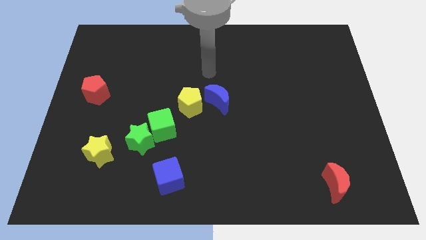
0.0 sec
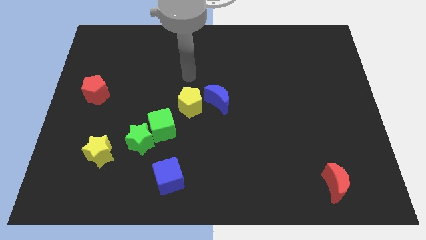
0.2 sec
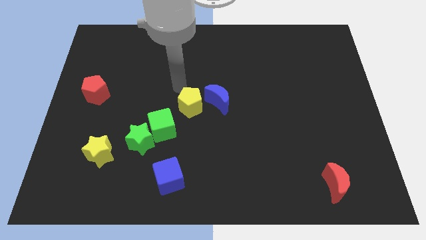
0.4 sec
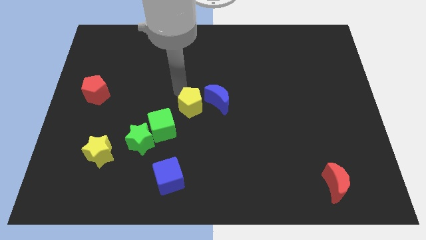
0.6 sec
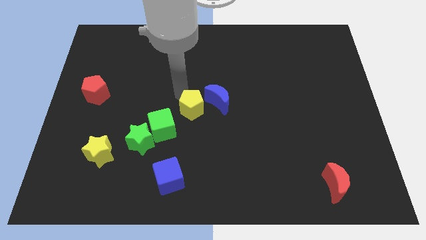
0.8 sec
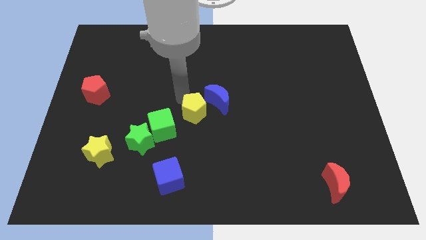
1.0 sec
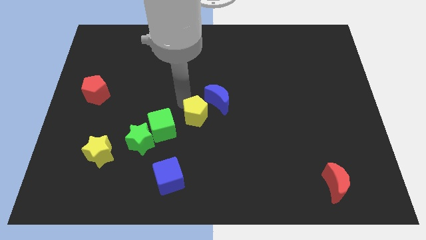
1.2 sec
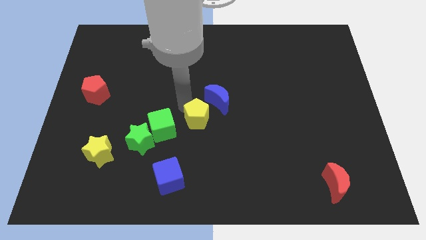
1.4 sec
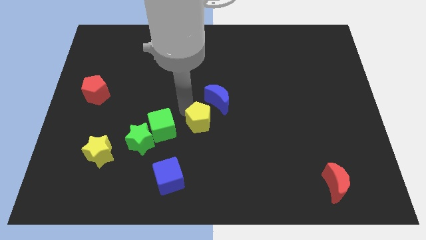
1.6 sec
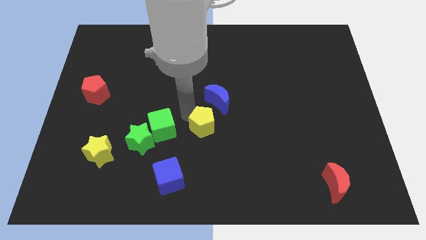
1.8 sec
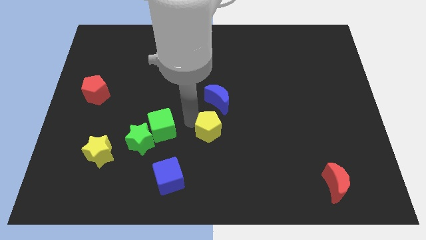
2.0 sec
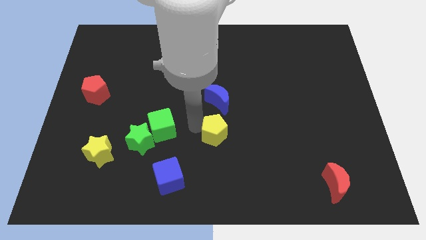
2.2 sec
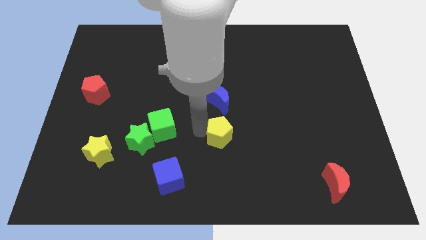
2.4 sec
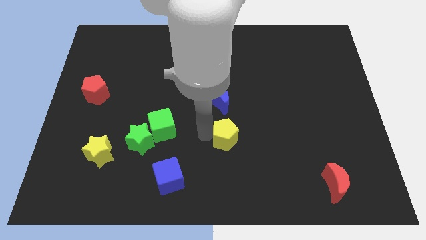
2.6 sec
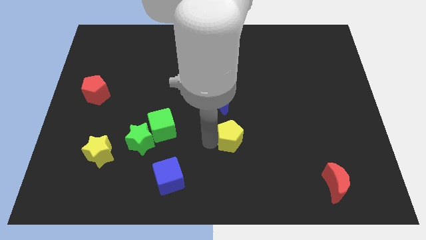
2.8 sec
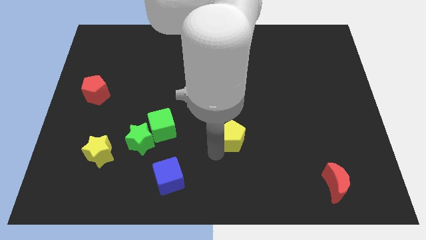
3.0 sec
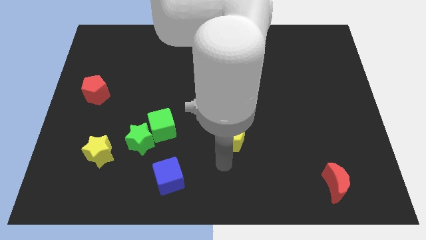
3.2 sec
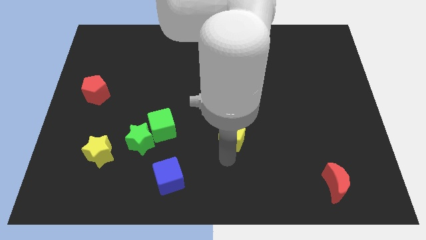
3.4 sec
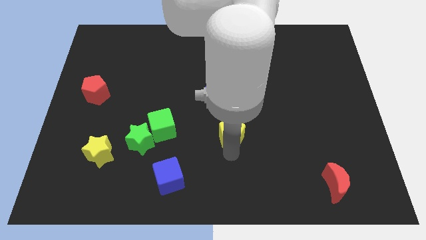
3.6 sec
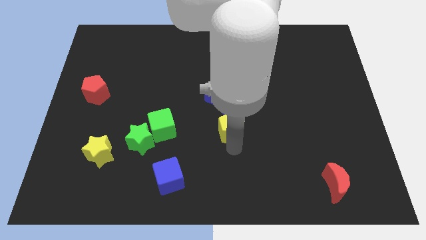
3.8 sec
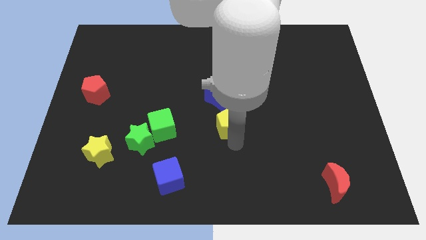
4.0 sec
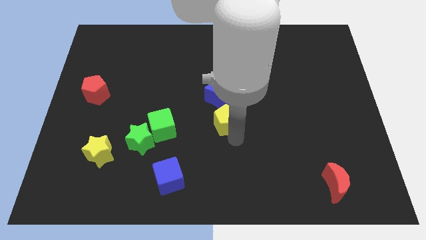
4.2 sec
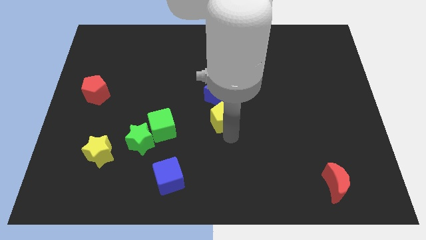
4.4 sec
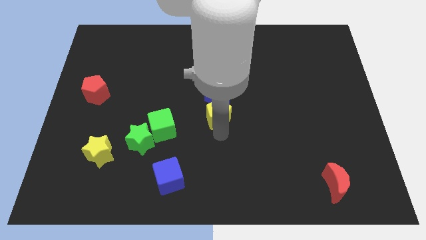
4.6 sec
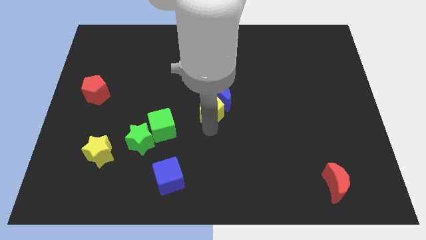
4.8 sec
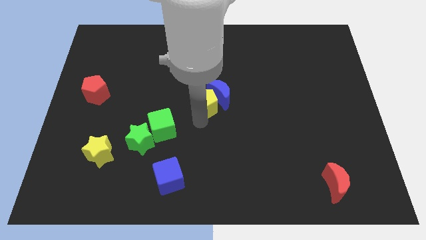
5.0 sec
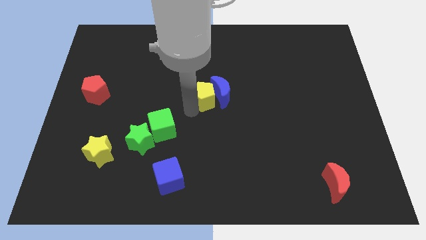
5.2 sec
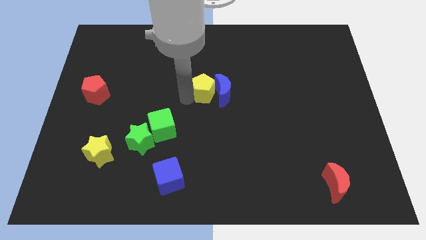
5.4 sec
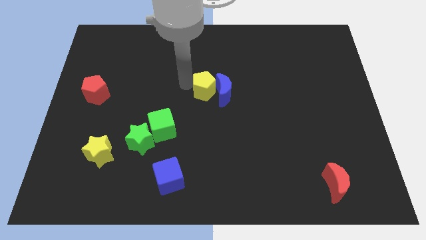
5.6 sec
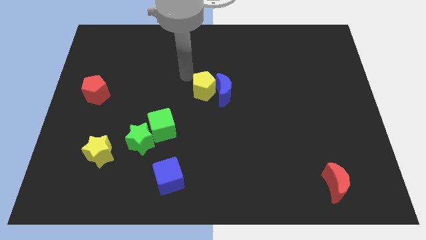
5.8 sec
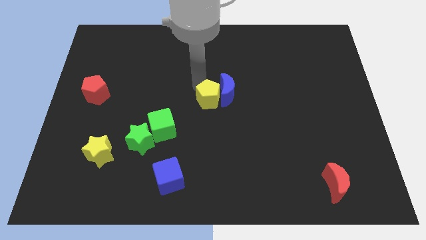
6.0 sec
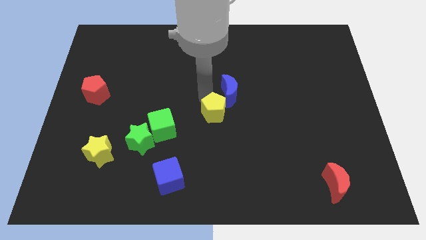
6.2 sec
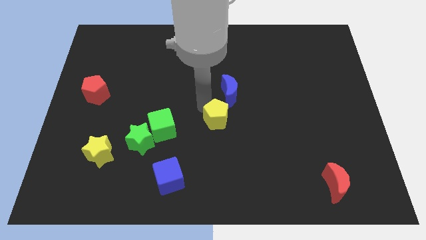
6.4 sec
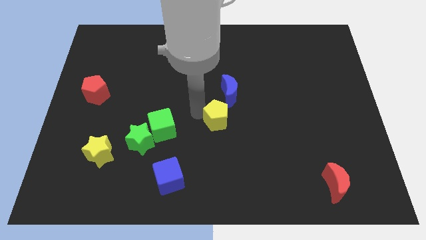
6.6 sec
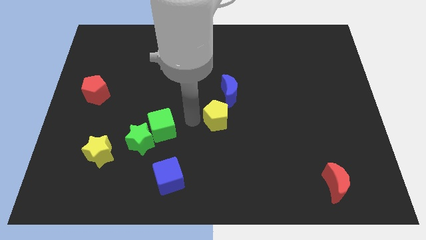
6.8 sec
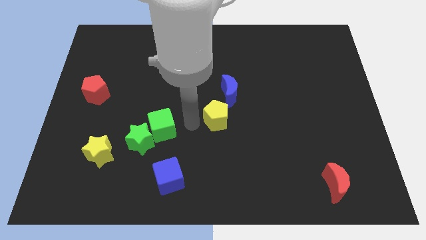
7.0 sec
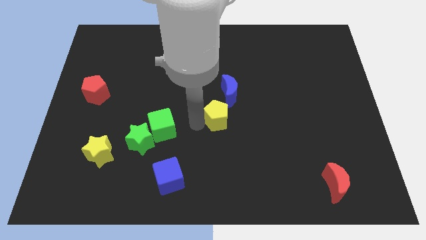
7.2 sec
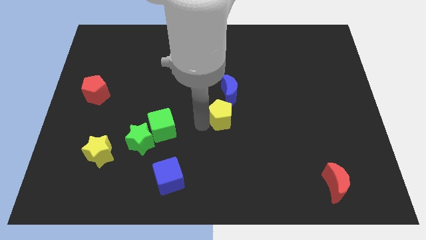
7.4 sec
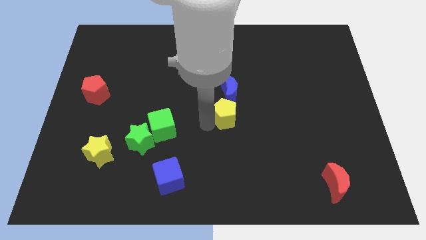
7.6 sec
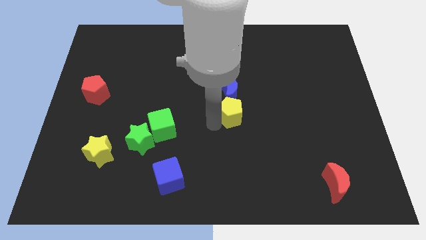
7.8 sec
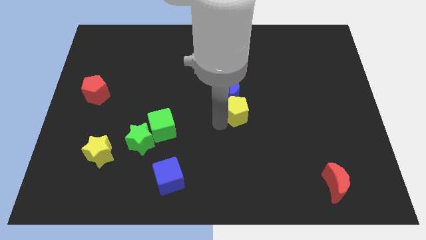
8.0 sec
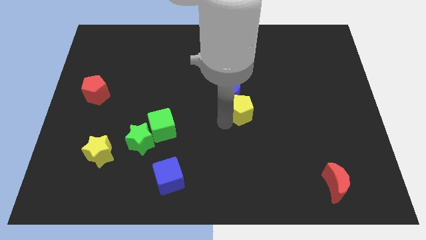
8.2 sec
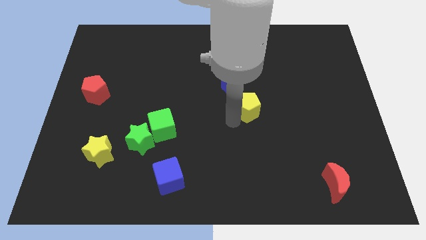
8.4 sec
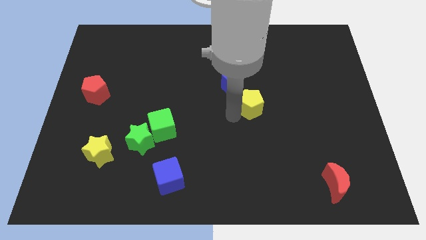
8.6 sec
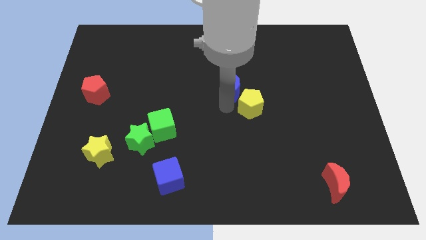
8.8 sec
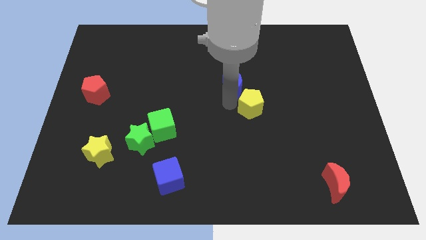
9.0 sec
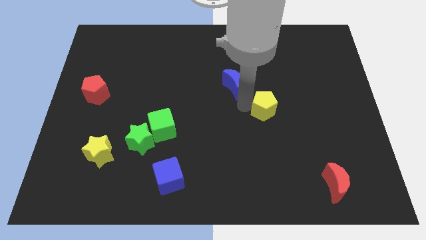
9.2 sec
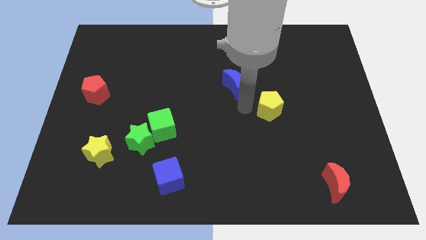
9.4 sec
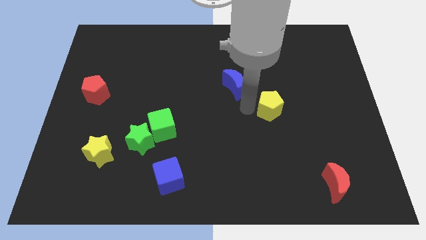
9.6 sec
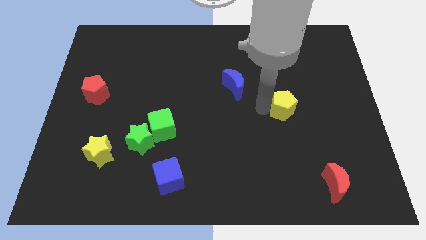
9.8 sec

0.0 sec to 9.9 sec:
push the yellow pentagon to the right

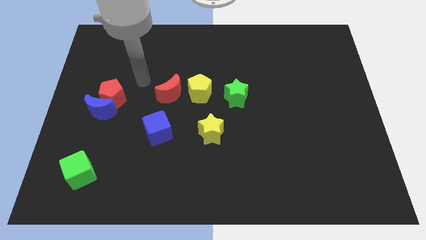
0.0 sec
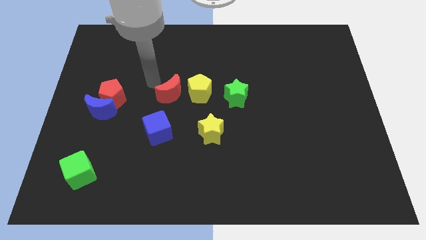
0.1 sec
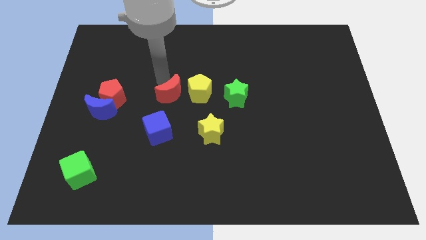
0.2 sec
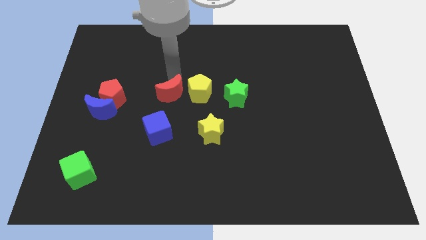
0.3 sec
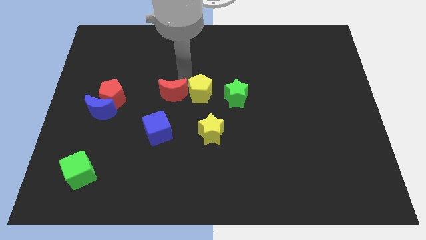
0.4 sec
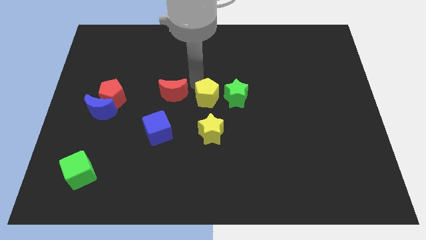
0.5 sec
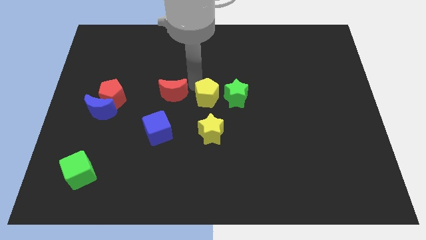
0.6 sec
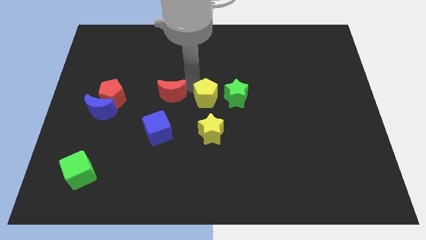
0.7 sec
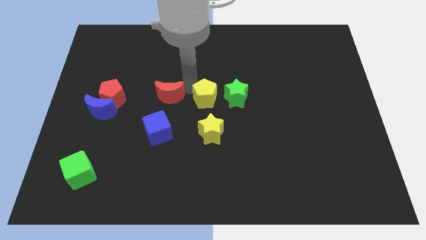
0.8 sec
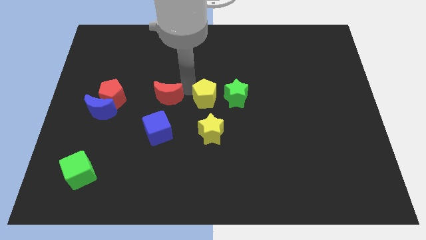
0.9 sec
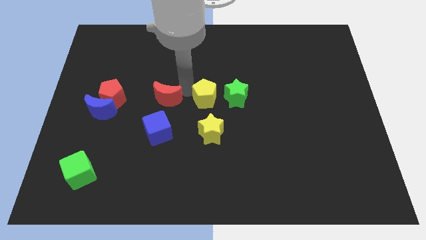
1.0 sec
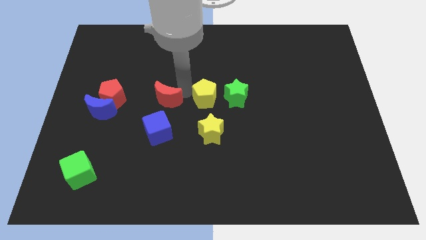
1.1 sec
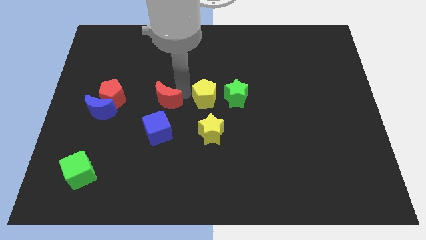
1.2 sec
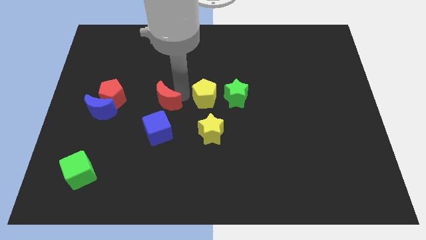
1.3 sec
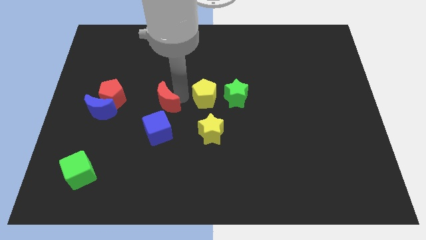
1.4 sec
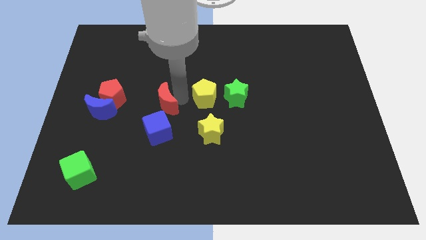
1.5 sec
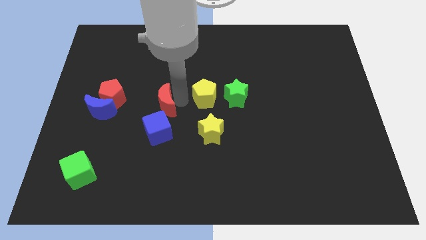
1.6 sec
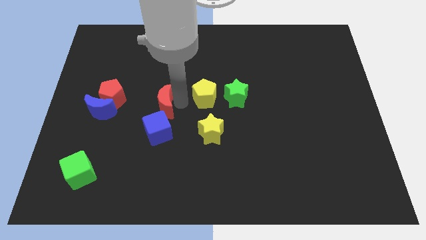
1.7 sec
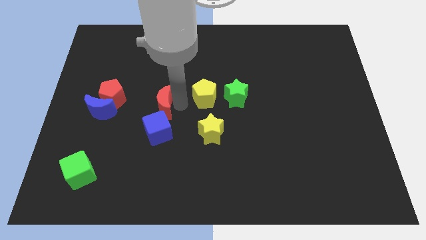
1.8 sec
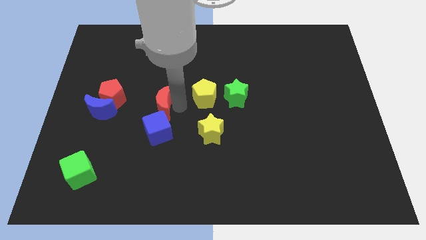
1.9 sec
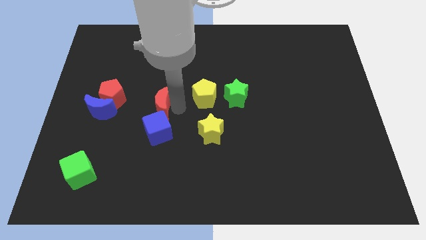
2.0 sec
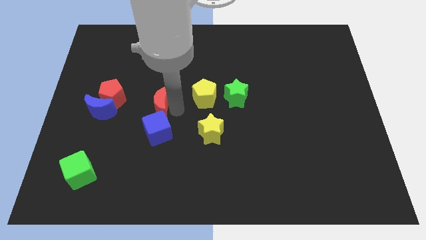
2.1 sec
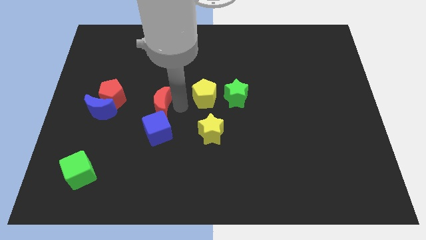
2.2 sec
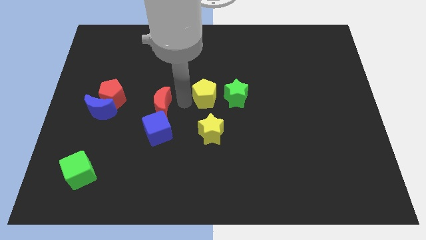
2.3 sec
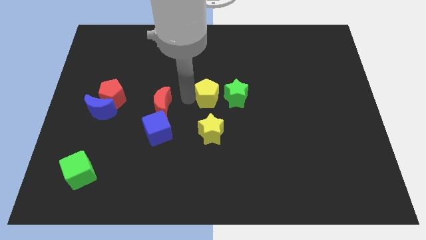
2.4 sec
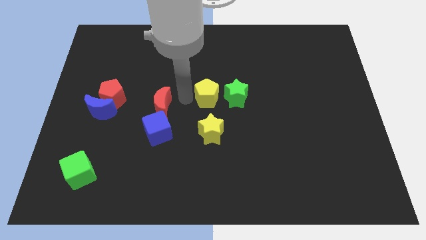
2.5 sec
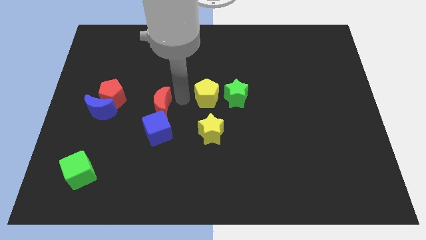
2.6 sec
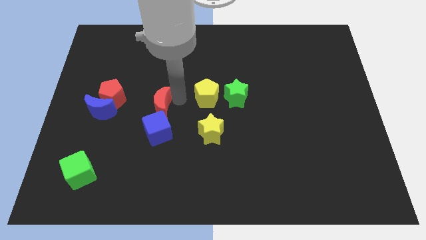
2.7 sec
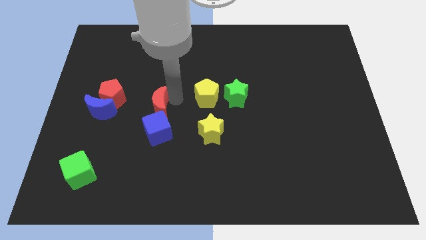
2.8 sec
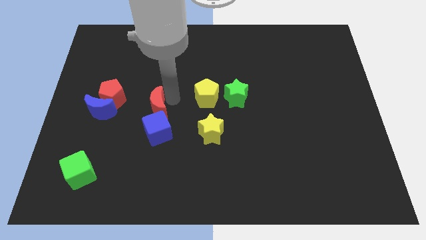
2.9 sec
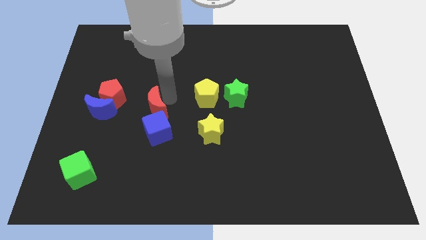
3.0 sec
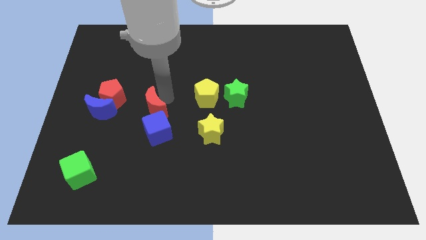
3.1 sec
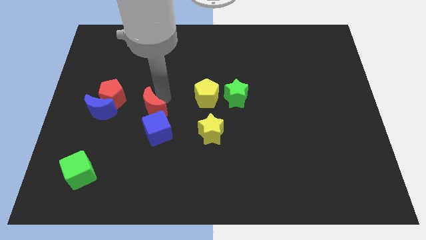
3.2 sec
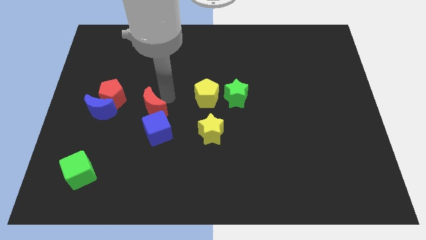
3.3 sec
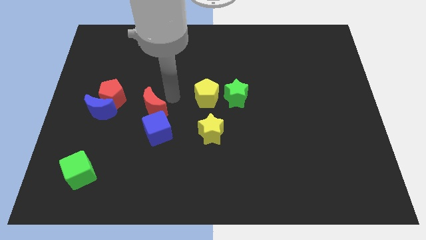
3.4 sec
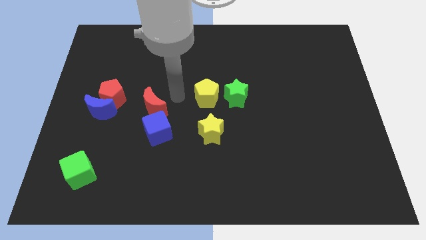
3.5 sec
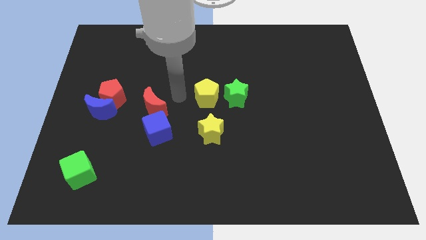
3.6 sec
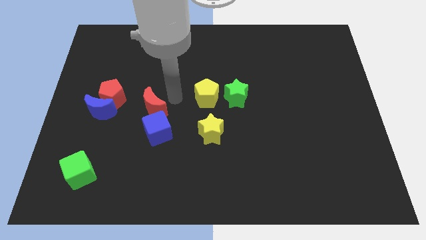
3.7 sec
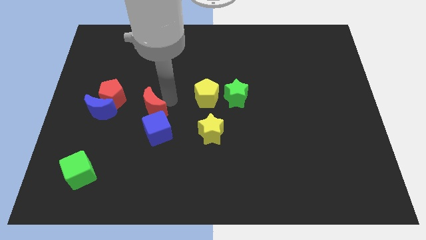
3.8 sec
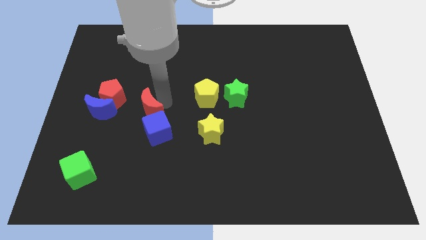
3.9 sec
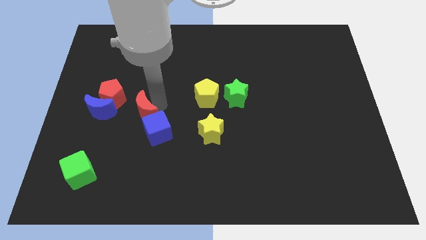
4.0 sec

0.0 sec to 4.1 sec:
move the red moon a bit downwards and then to the left
